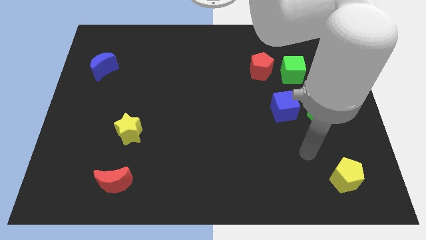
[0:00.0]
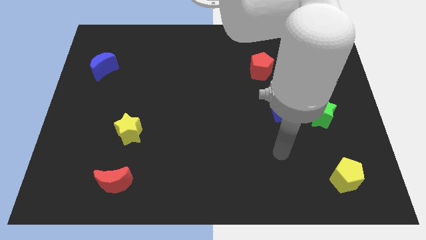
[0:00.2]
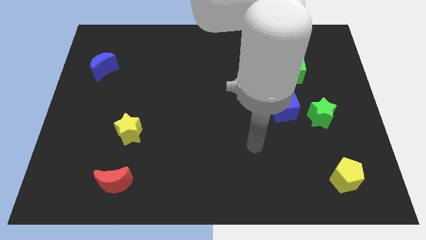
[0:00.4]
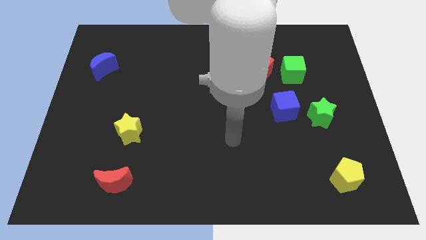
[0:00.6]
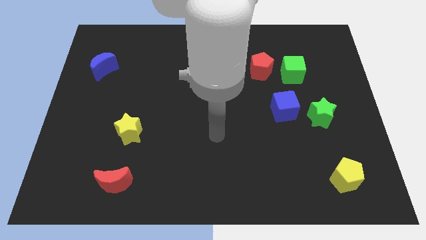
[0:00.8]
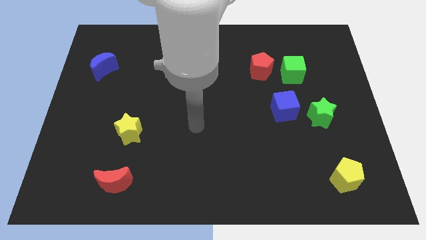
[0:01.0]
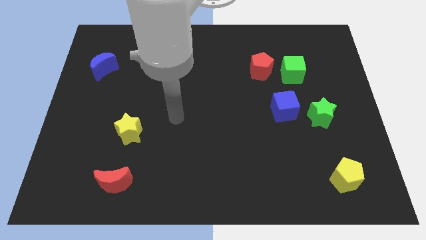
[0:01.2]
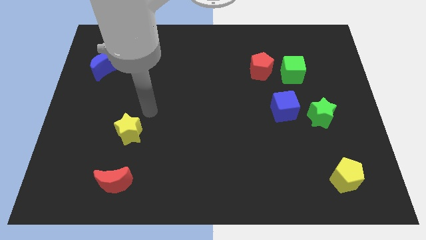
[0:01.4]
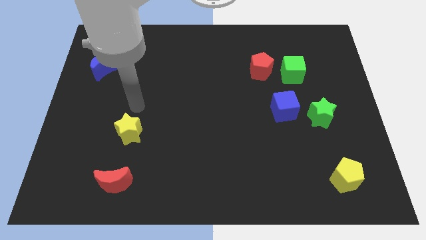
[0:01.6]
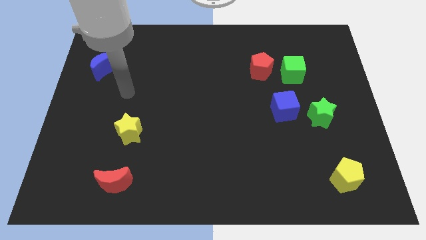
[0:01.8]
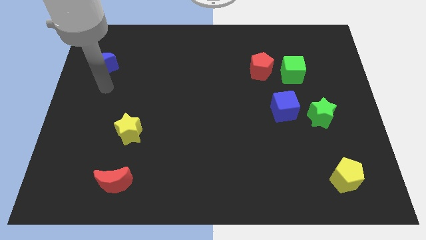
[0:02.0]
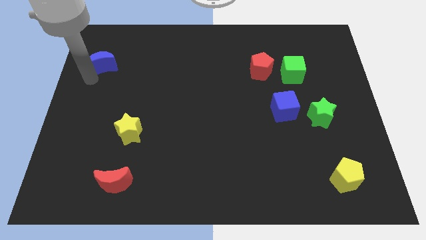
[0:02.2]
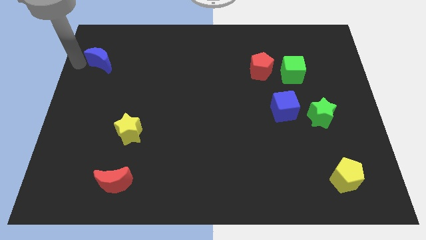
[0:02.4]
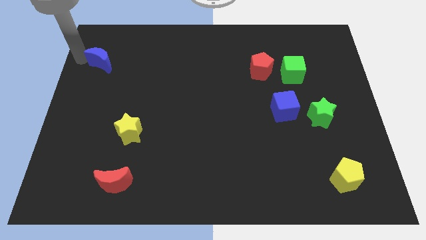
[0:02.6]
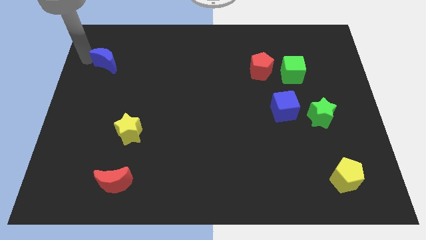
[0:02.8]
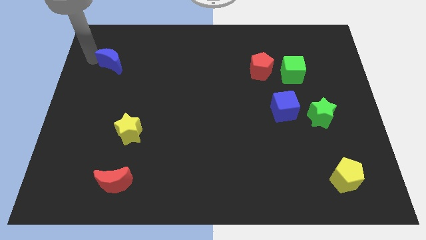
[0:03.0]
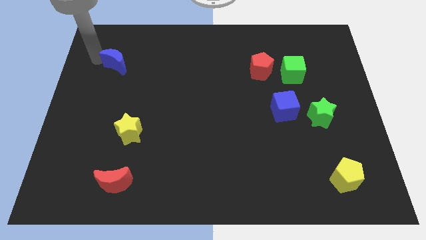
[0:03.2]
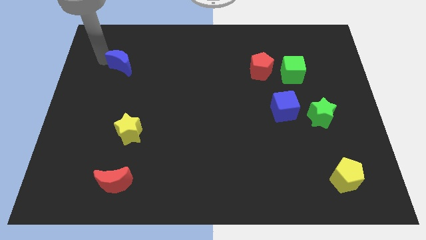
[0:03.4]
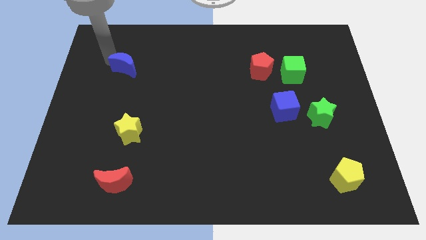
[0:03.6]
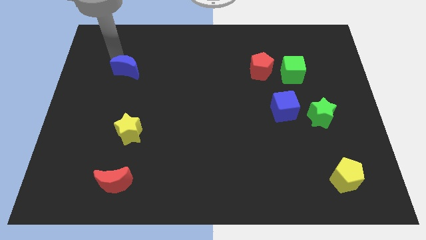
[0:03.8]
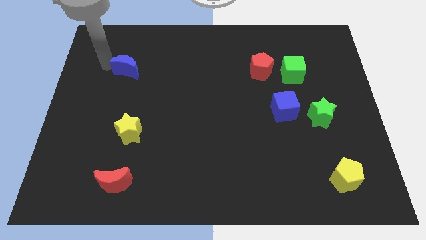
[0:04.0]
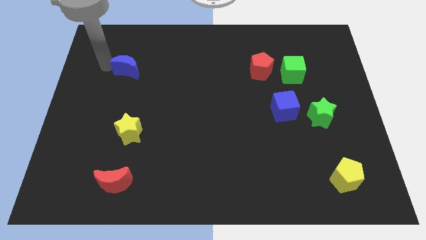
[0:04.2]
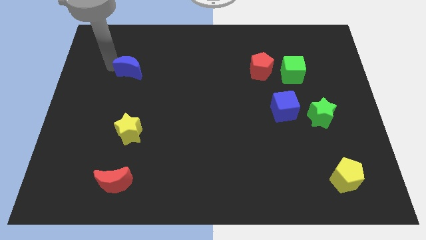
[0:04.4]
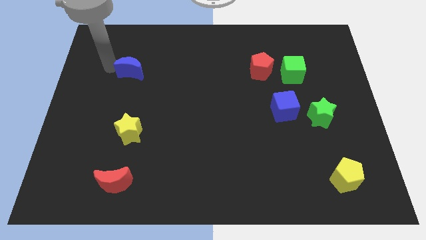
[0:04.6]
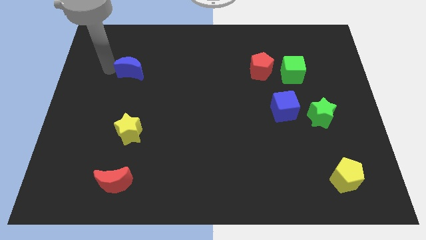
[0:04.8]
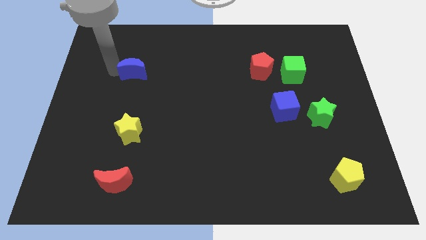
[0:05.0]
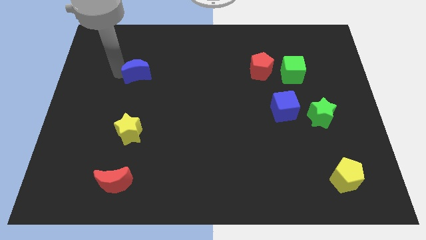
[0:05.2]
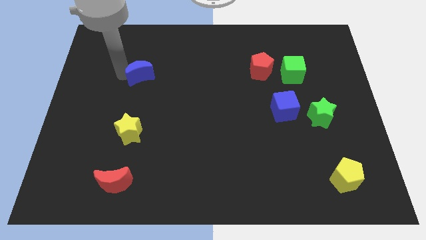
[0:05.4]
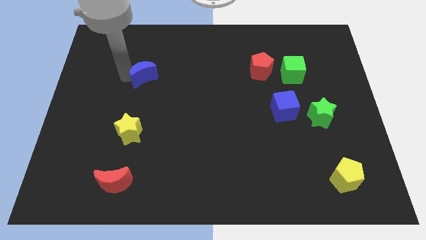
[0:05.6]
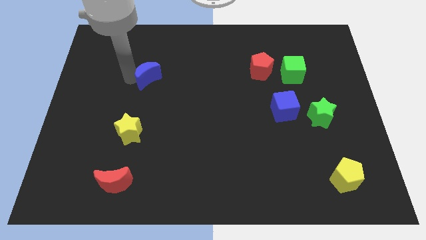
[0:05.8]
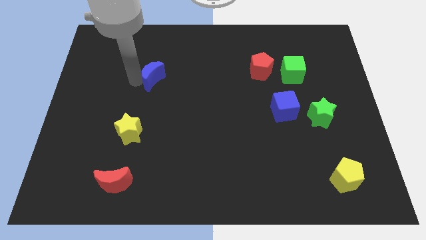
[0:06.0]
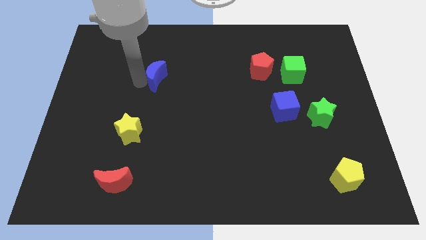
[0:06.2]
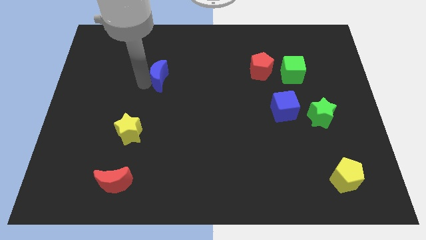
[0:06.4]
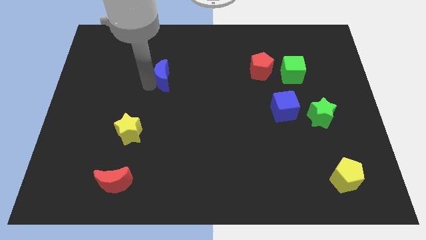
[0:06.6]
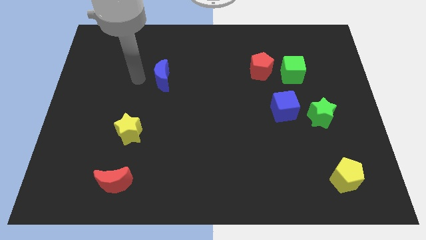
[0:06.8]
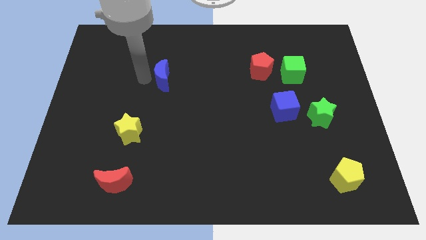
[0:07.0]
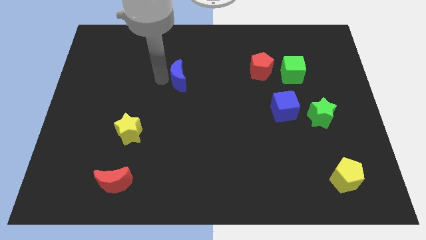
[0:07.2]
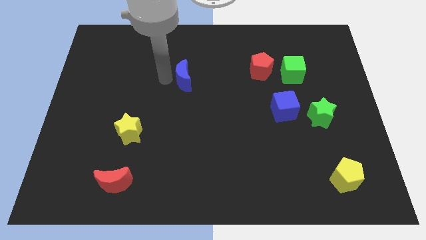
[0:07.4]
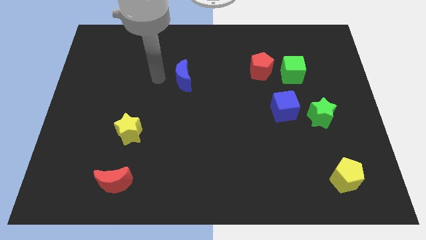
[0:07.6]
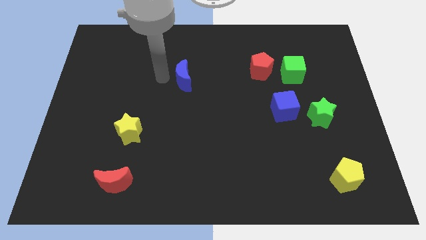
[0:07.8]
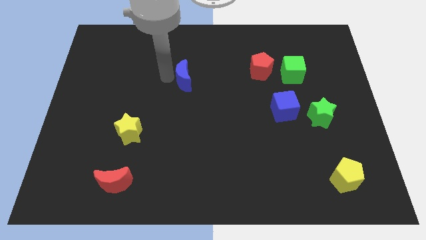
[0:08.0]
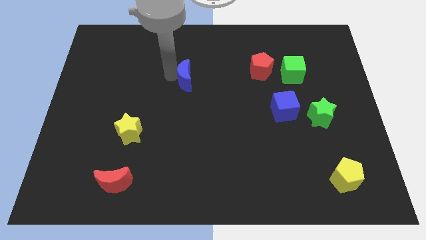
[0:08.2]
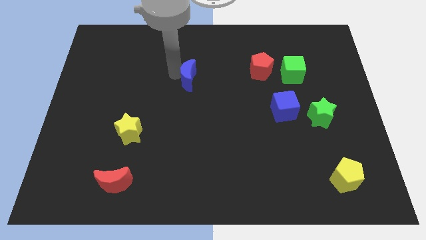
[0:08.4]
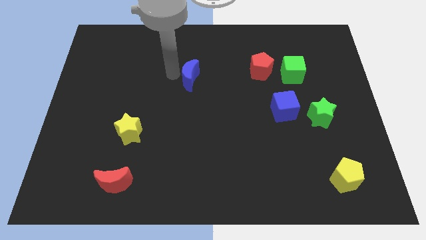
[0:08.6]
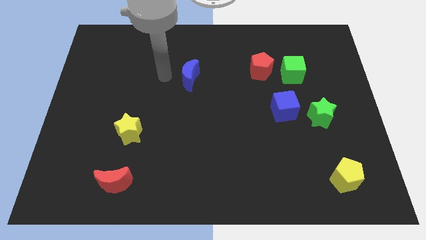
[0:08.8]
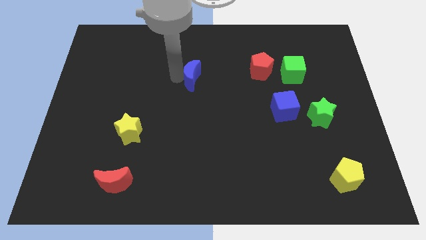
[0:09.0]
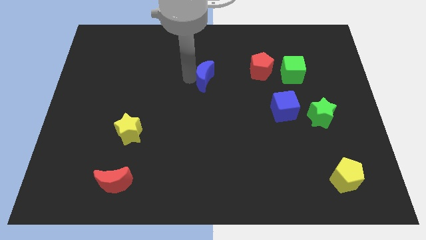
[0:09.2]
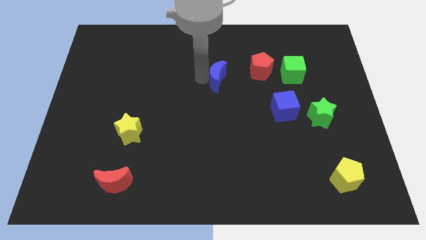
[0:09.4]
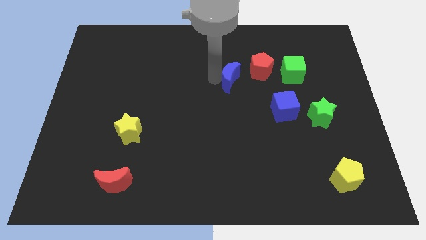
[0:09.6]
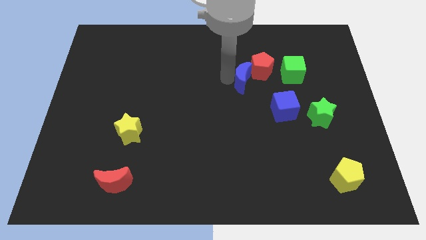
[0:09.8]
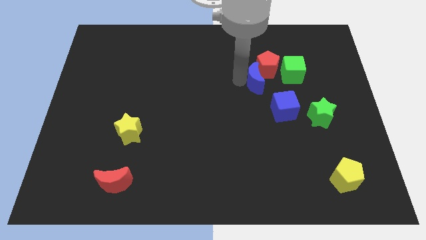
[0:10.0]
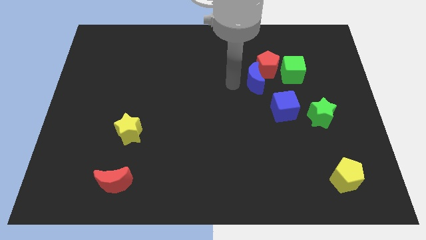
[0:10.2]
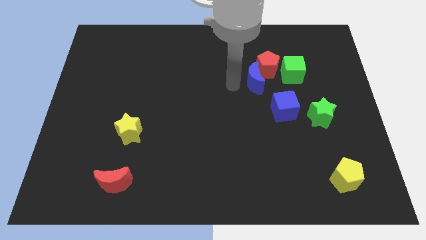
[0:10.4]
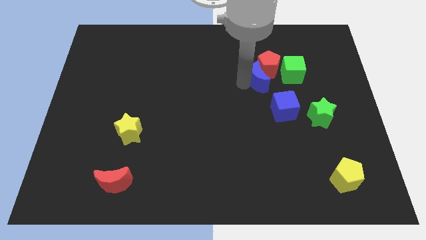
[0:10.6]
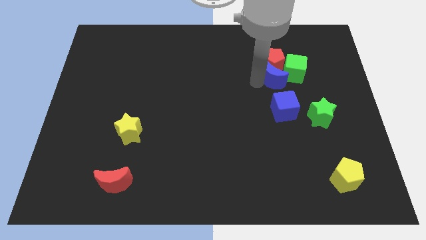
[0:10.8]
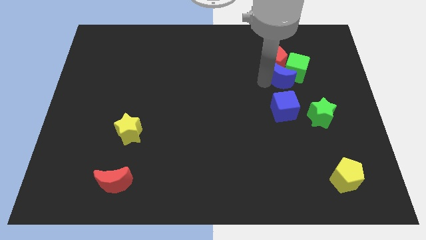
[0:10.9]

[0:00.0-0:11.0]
slide the blue moon towards the green cube

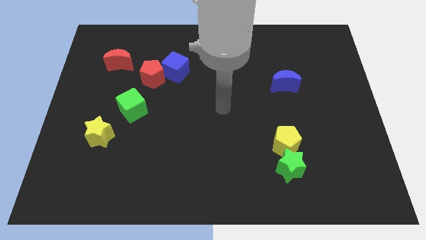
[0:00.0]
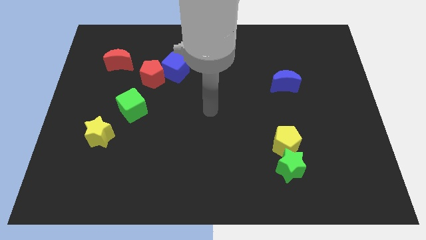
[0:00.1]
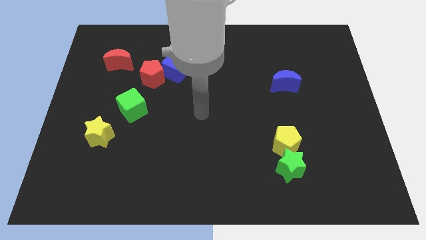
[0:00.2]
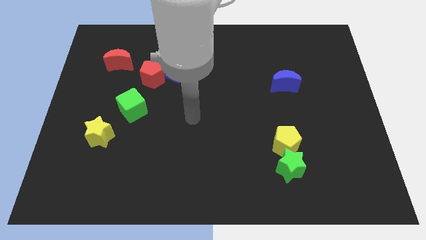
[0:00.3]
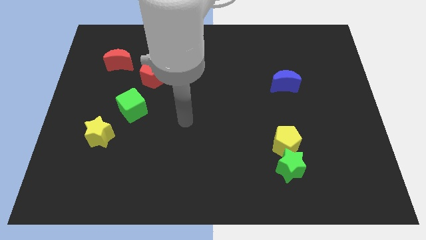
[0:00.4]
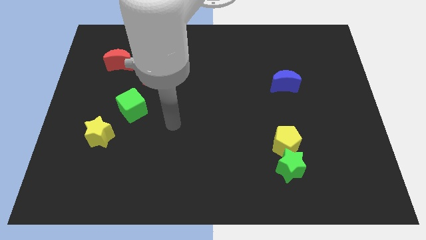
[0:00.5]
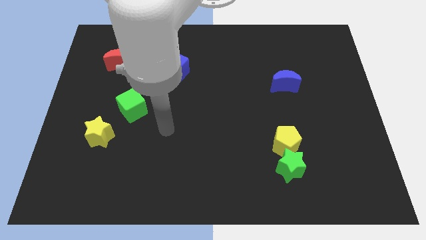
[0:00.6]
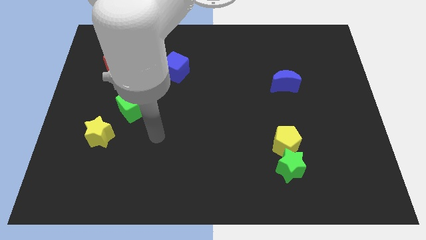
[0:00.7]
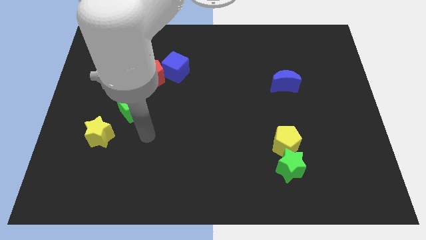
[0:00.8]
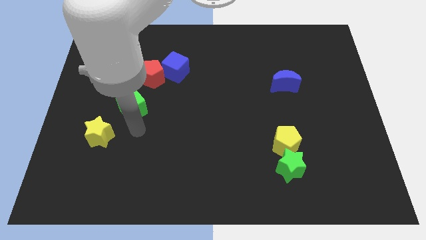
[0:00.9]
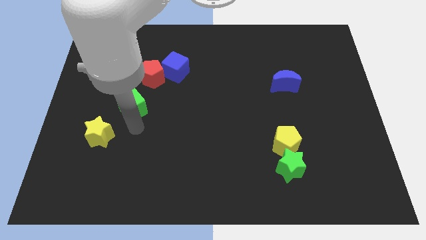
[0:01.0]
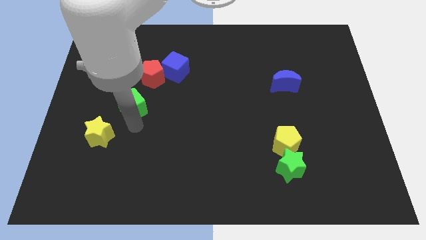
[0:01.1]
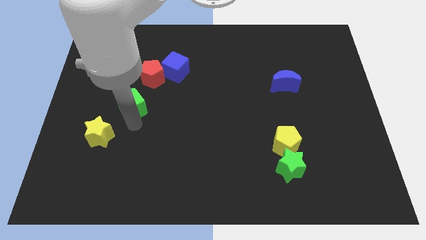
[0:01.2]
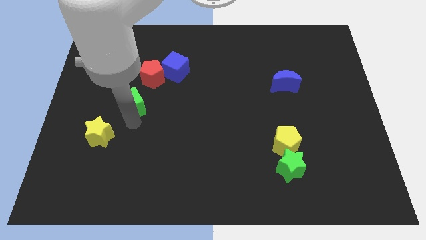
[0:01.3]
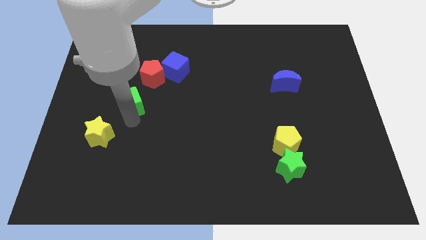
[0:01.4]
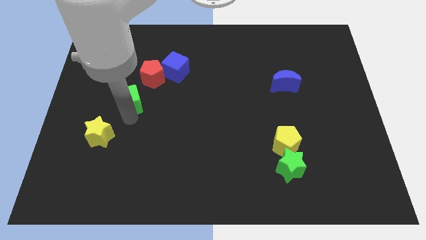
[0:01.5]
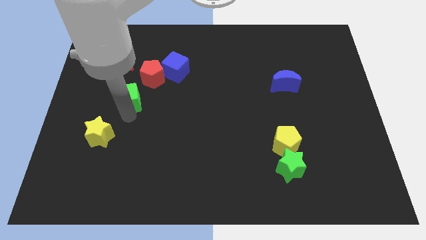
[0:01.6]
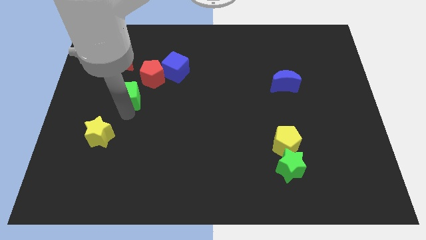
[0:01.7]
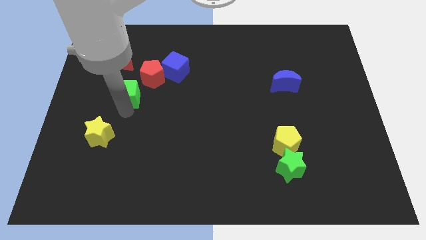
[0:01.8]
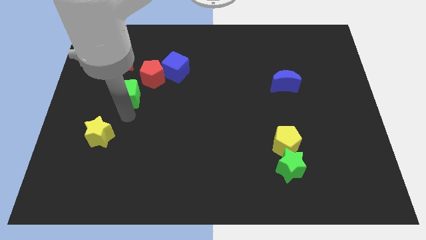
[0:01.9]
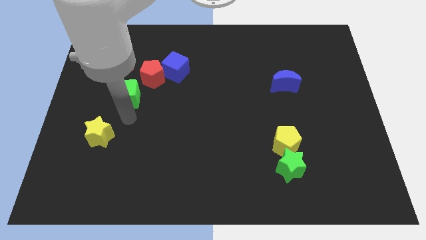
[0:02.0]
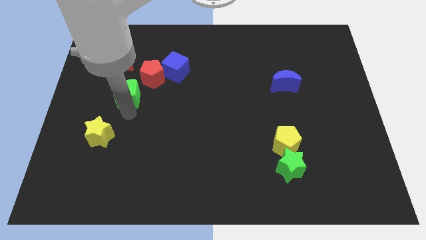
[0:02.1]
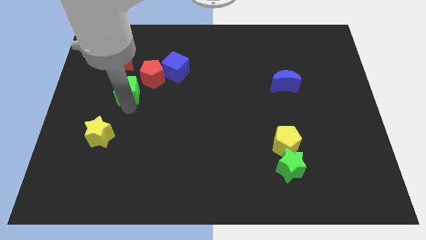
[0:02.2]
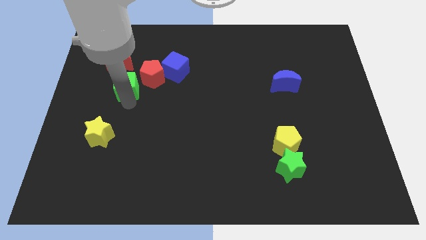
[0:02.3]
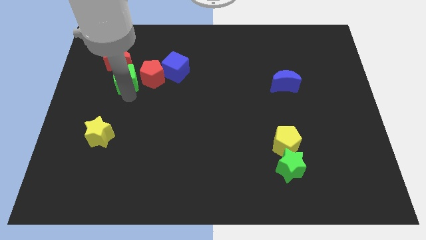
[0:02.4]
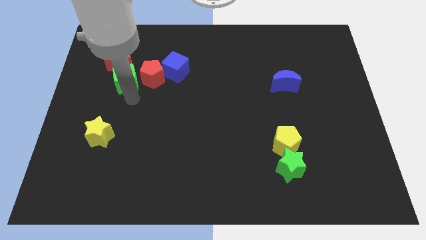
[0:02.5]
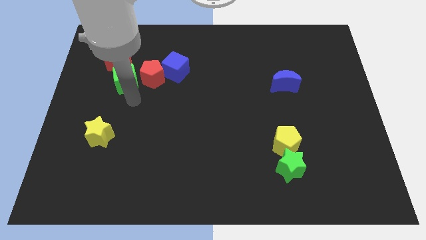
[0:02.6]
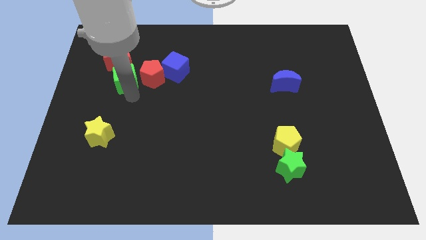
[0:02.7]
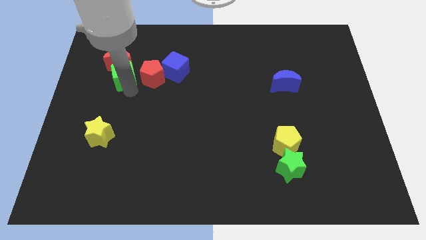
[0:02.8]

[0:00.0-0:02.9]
put the green cube to the red moon
